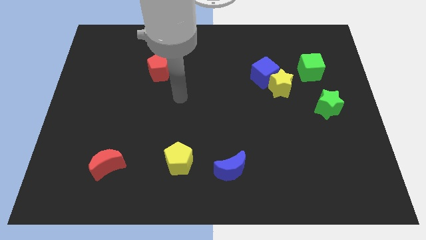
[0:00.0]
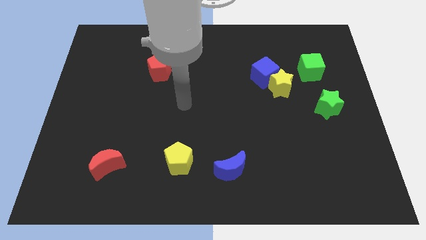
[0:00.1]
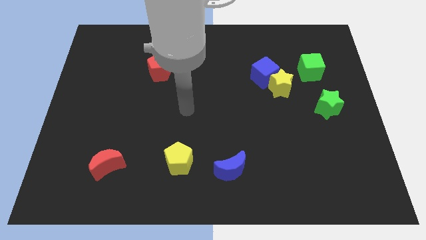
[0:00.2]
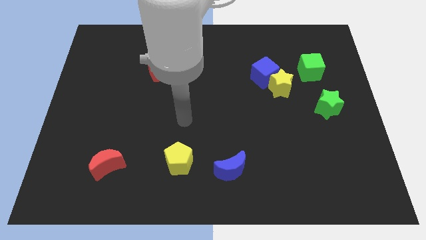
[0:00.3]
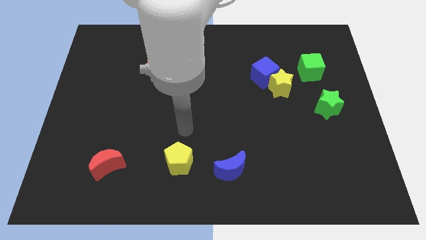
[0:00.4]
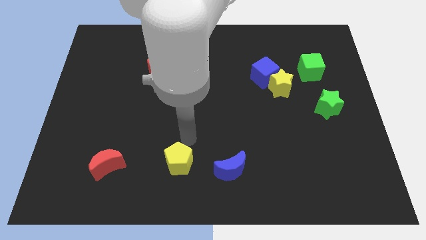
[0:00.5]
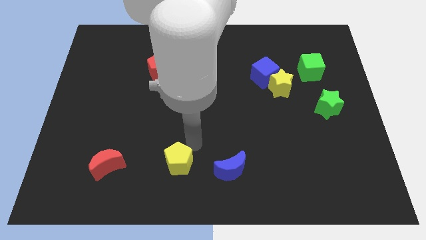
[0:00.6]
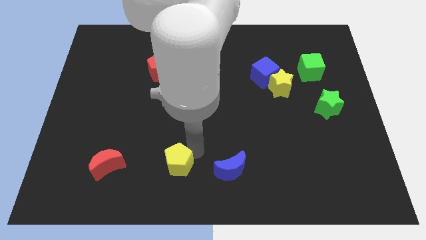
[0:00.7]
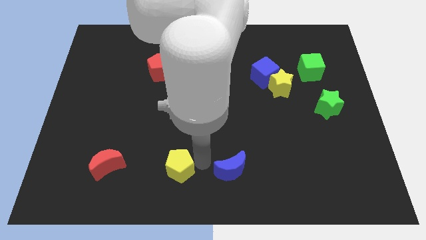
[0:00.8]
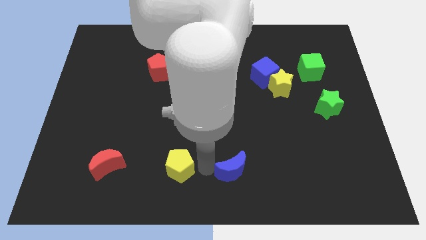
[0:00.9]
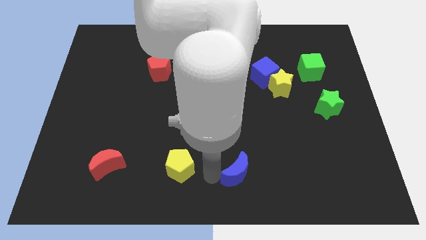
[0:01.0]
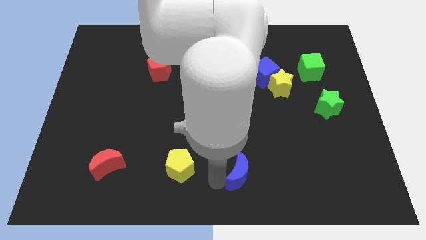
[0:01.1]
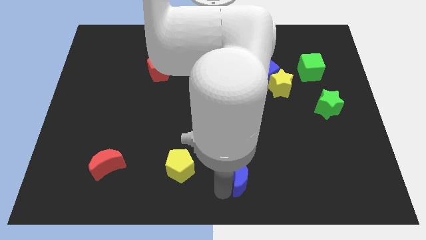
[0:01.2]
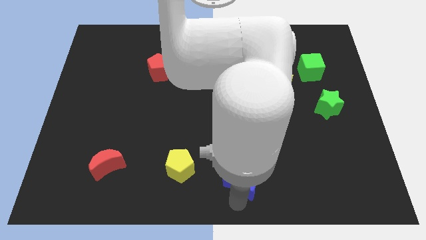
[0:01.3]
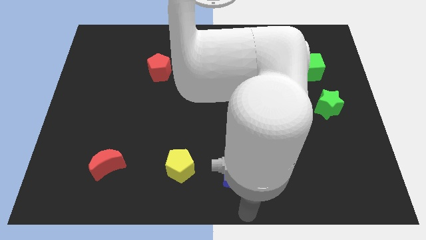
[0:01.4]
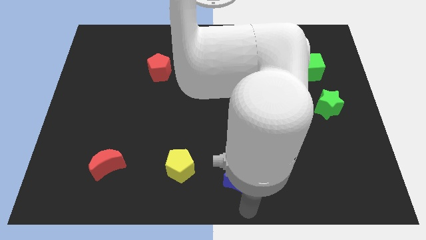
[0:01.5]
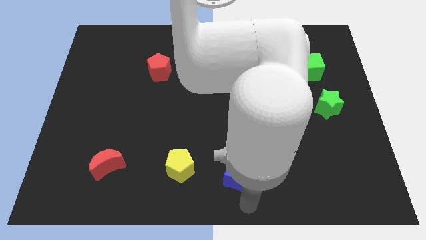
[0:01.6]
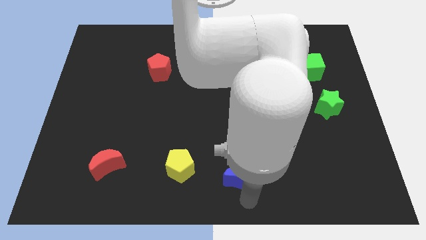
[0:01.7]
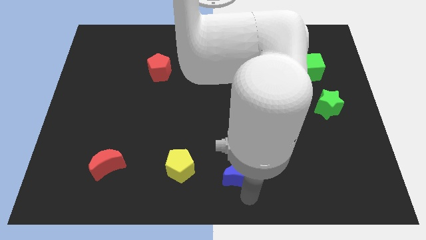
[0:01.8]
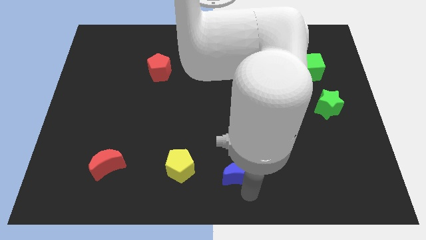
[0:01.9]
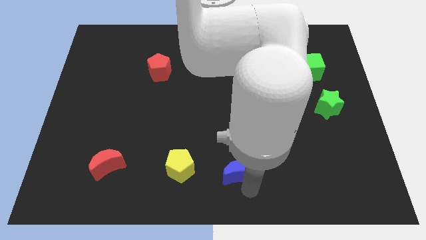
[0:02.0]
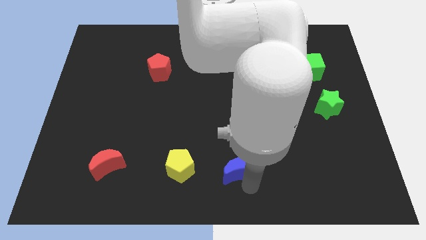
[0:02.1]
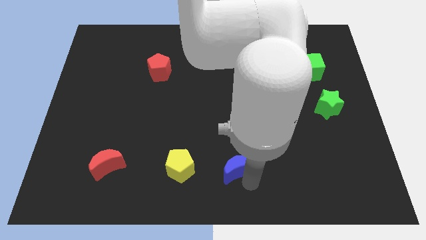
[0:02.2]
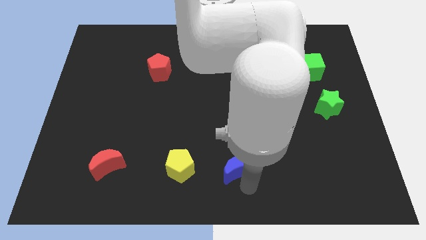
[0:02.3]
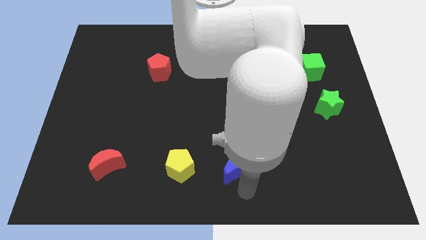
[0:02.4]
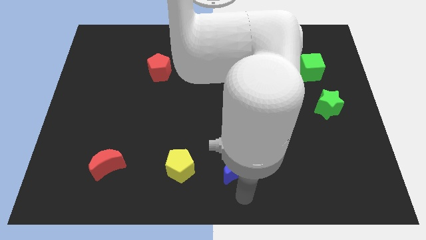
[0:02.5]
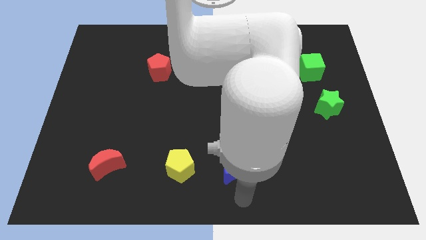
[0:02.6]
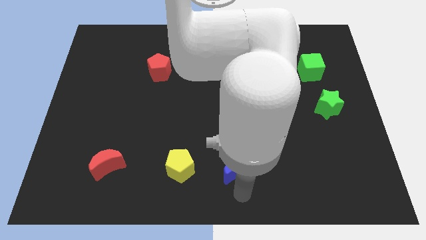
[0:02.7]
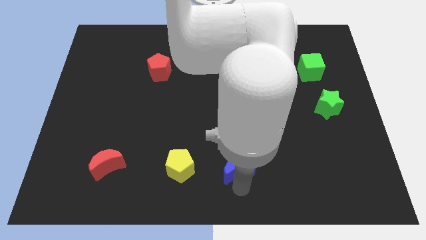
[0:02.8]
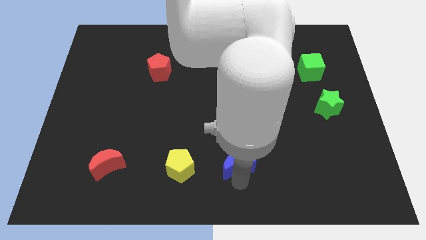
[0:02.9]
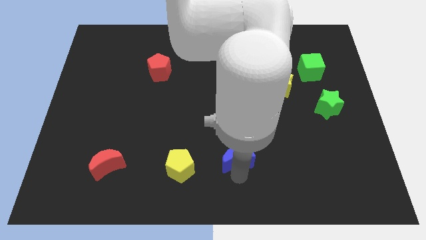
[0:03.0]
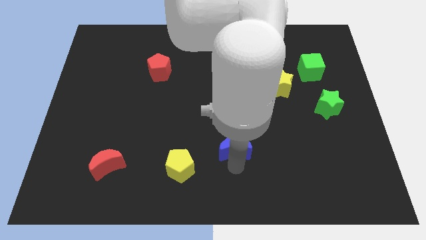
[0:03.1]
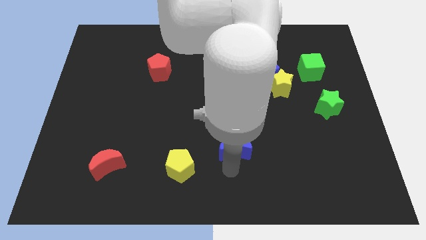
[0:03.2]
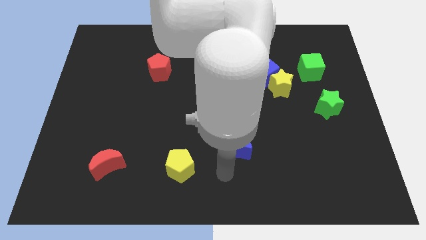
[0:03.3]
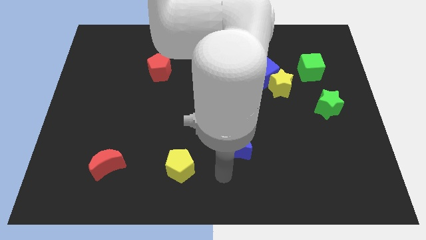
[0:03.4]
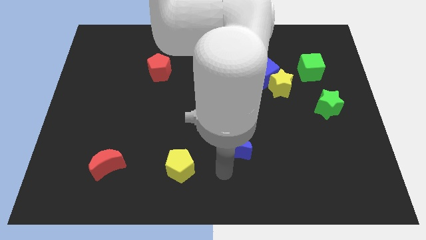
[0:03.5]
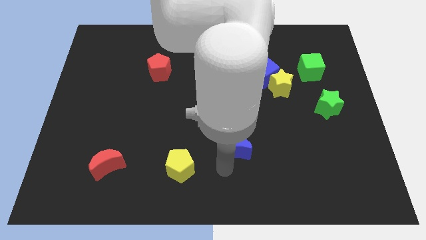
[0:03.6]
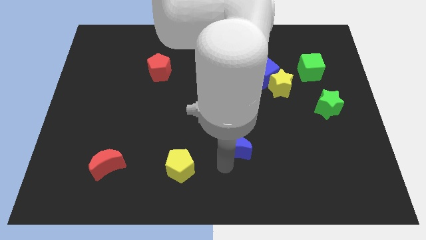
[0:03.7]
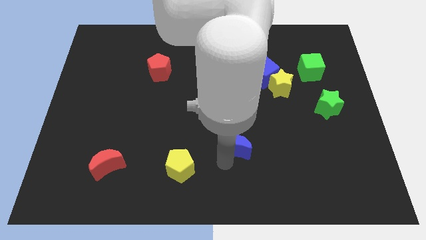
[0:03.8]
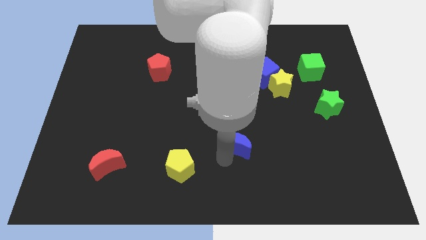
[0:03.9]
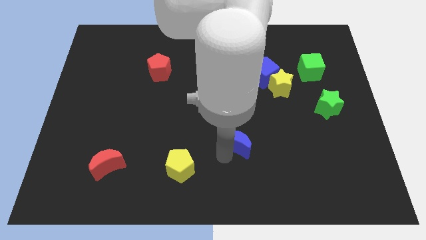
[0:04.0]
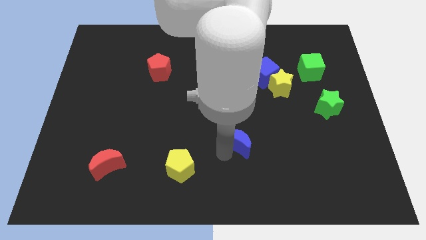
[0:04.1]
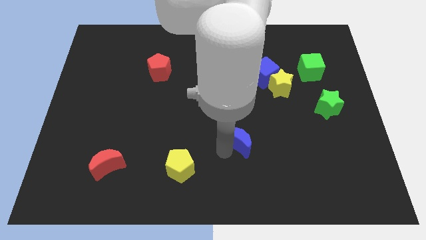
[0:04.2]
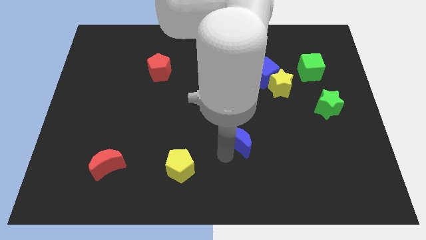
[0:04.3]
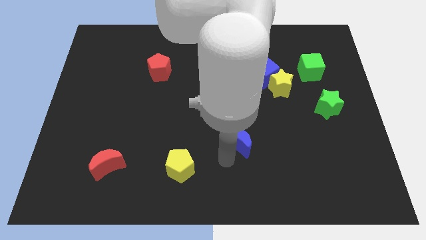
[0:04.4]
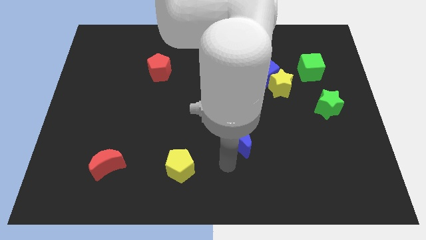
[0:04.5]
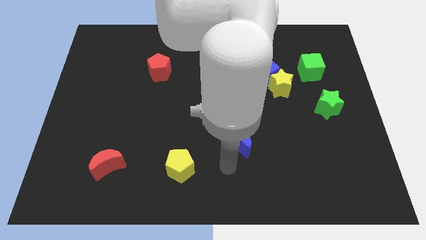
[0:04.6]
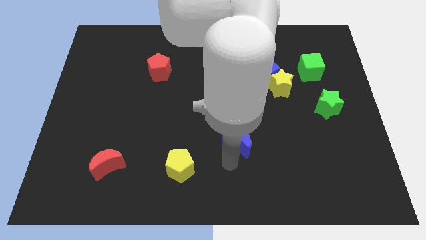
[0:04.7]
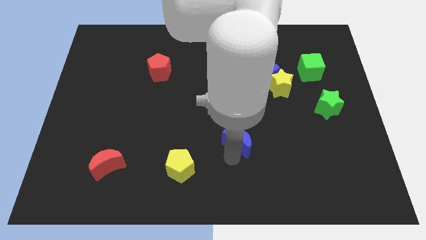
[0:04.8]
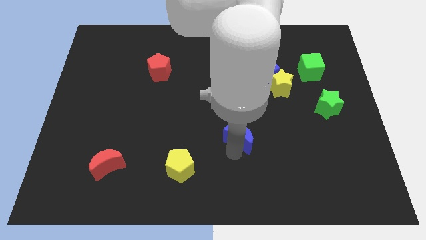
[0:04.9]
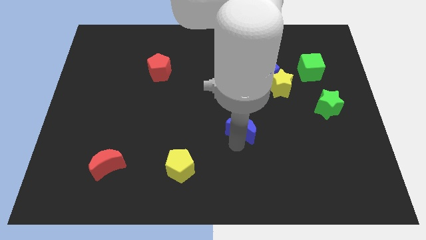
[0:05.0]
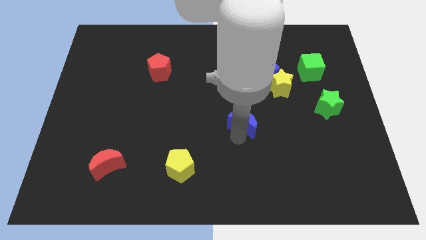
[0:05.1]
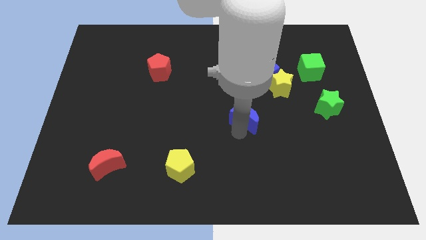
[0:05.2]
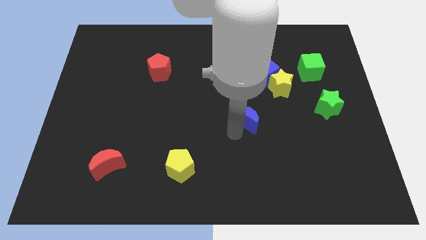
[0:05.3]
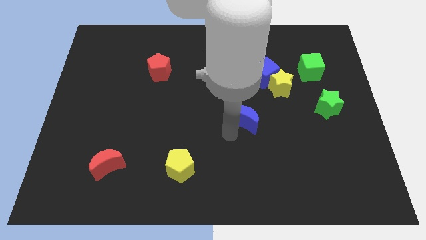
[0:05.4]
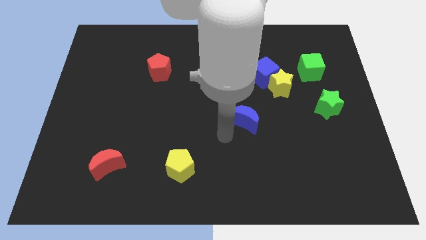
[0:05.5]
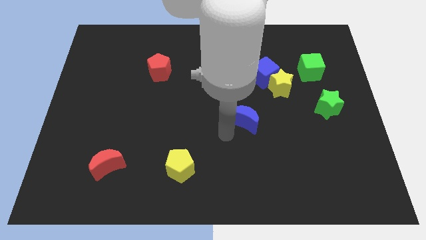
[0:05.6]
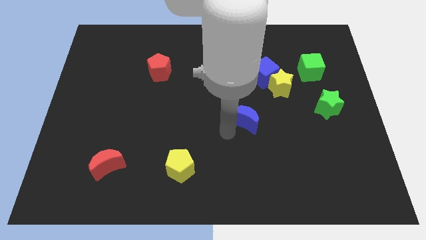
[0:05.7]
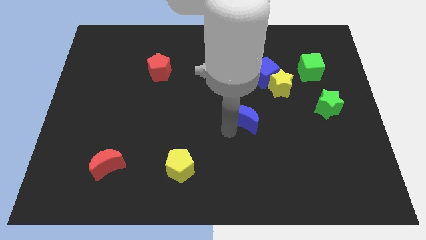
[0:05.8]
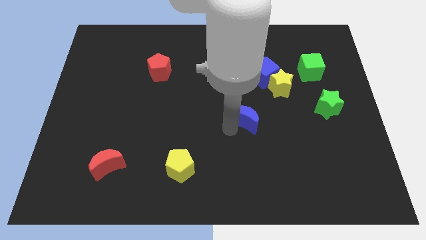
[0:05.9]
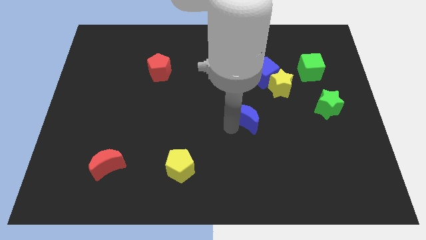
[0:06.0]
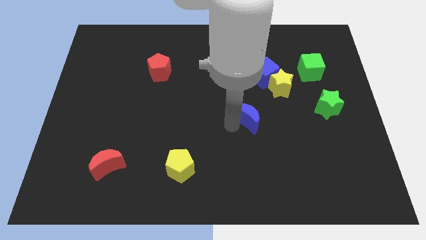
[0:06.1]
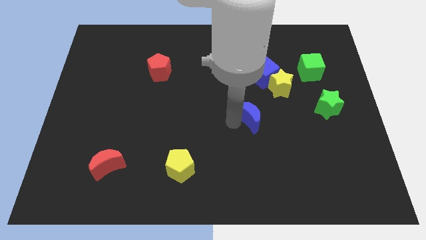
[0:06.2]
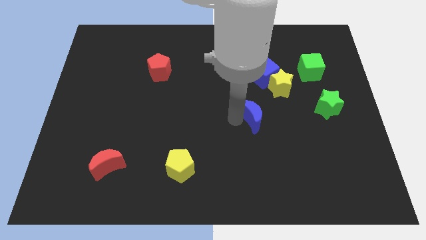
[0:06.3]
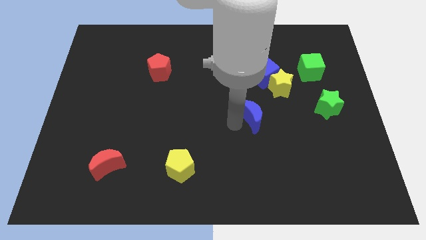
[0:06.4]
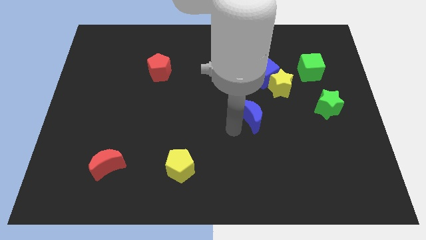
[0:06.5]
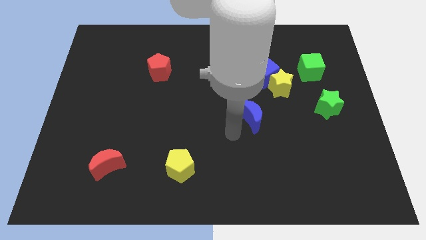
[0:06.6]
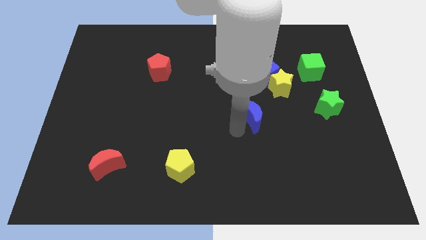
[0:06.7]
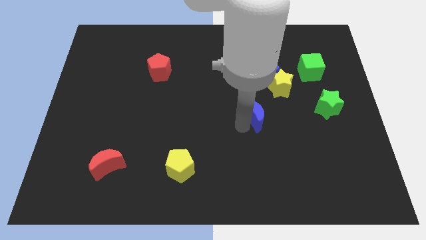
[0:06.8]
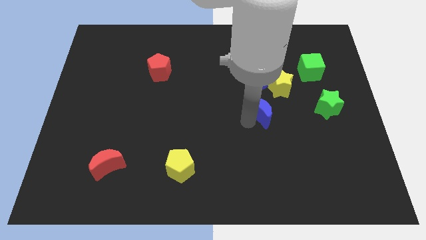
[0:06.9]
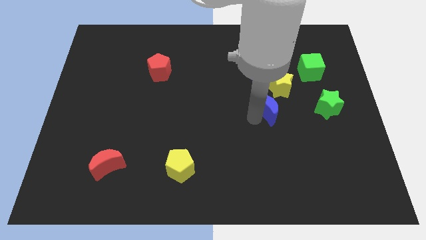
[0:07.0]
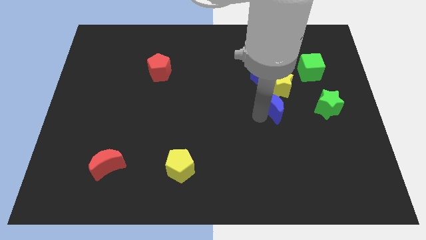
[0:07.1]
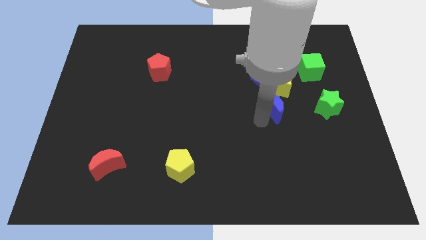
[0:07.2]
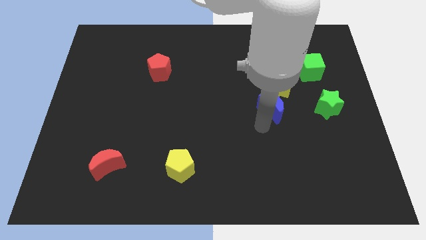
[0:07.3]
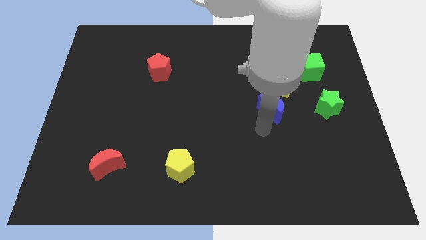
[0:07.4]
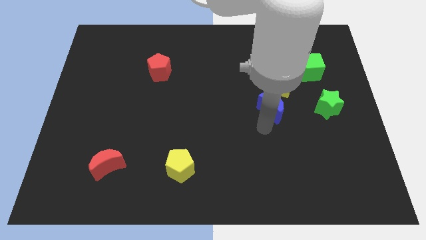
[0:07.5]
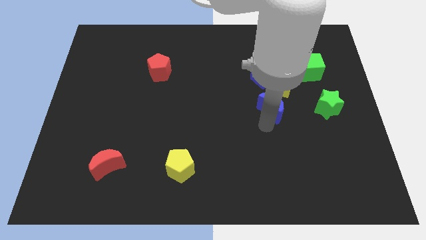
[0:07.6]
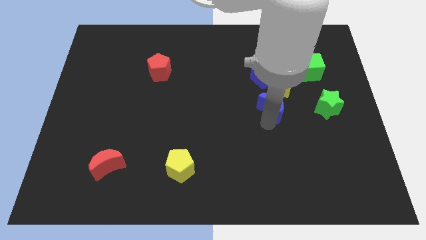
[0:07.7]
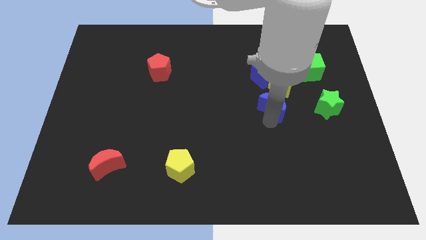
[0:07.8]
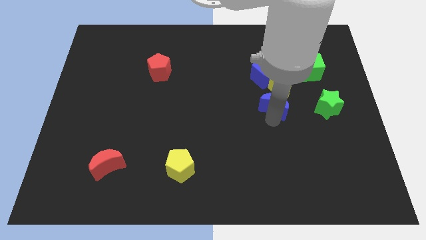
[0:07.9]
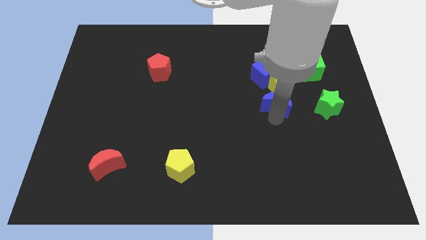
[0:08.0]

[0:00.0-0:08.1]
push the blue moon close to the yellow star

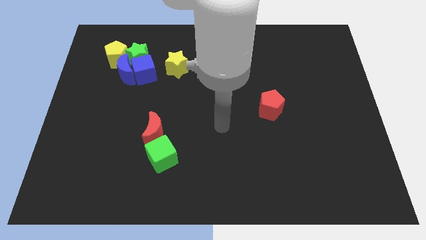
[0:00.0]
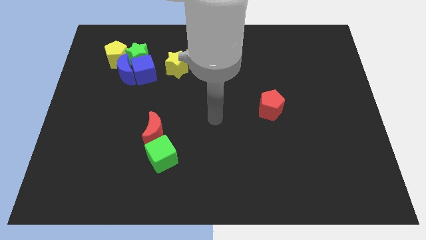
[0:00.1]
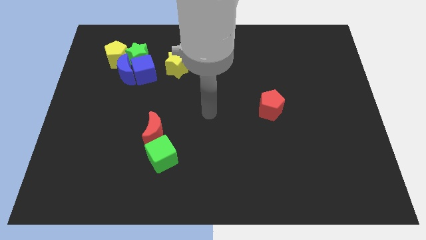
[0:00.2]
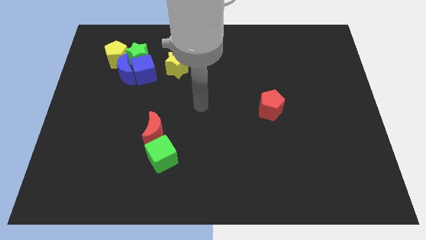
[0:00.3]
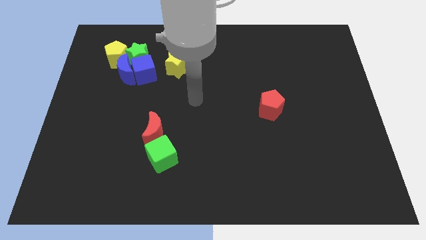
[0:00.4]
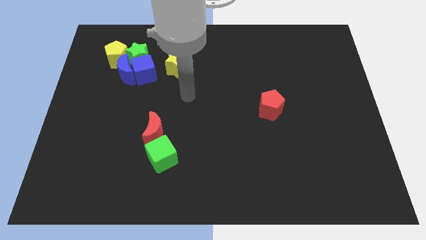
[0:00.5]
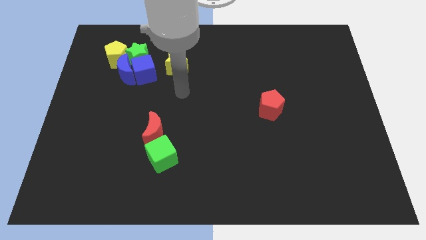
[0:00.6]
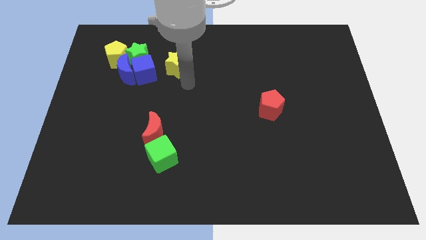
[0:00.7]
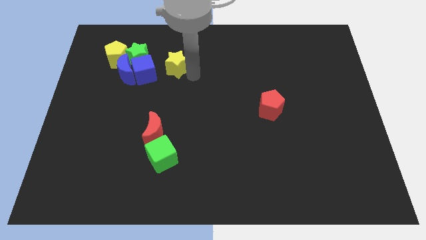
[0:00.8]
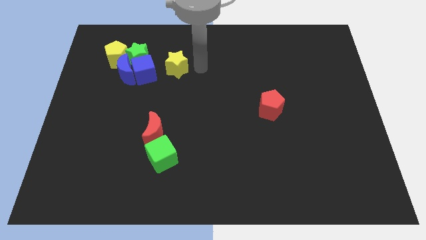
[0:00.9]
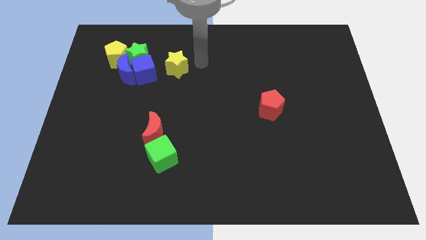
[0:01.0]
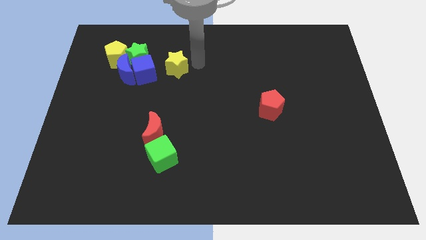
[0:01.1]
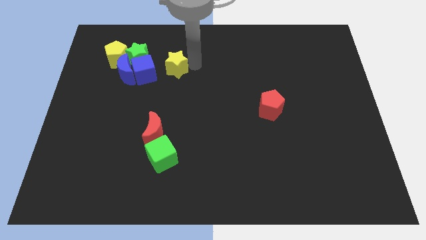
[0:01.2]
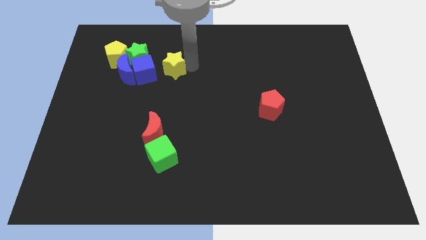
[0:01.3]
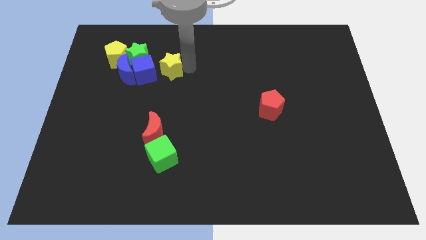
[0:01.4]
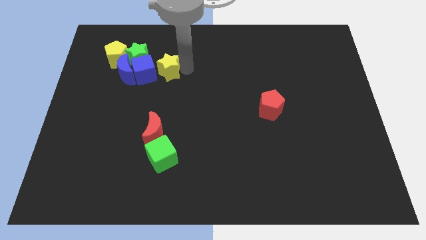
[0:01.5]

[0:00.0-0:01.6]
slide the yellow star next to the blue cube
